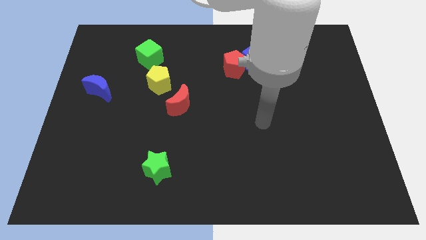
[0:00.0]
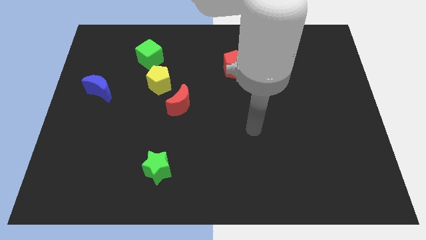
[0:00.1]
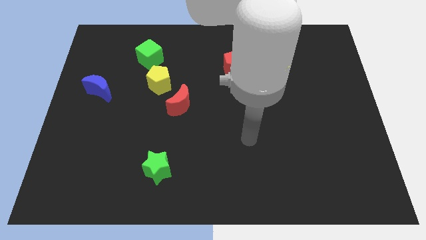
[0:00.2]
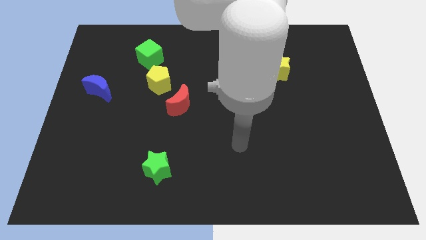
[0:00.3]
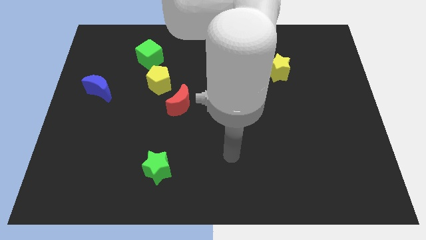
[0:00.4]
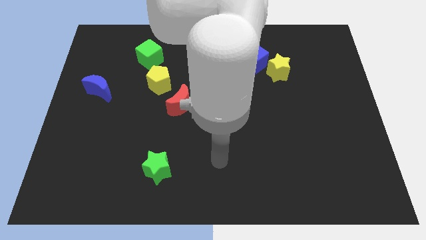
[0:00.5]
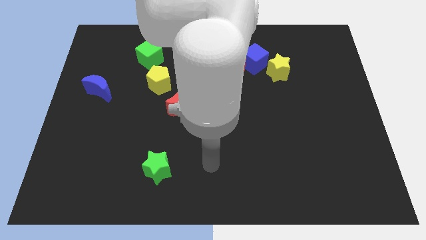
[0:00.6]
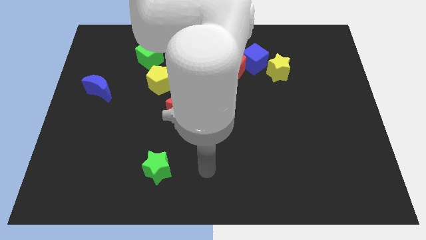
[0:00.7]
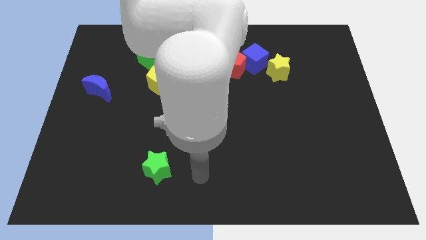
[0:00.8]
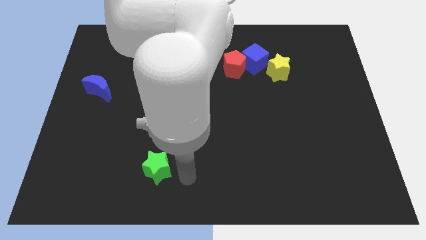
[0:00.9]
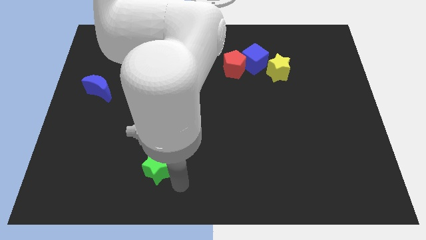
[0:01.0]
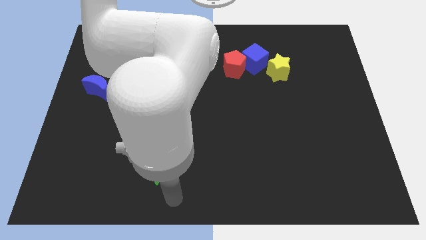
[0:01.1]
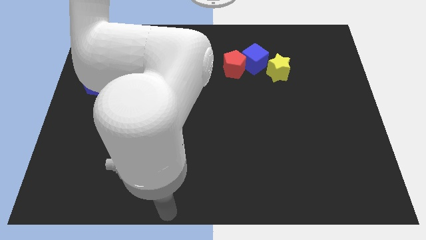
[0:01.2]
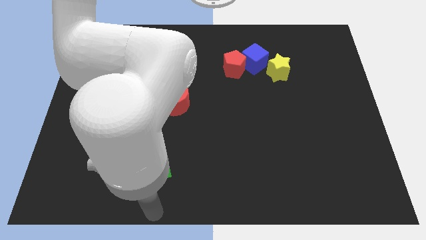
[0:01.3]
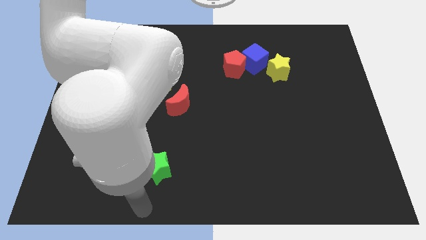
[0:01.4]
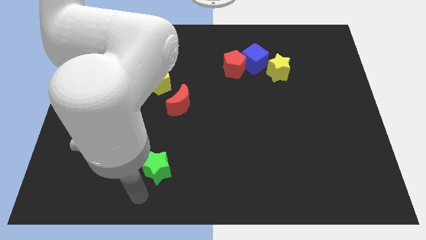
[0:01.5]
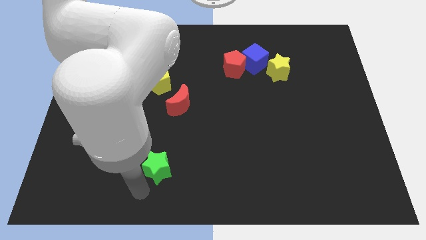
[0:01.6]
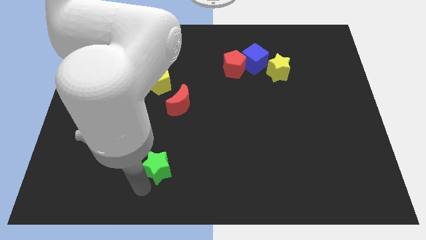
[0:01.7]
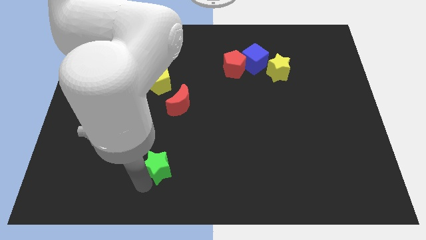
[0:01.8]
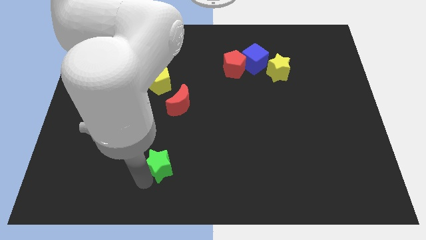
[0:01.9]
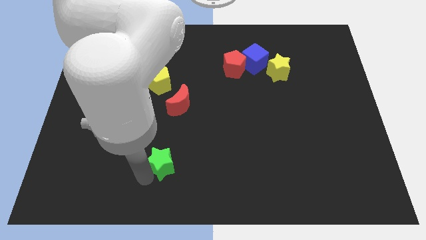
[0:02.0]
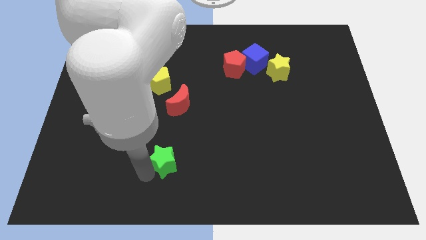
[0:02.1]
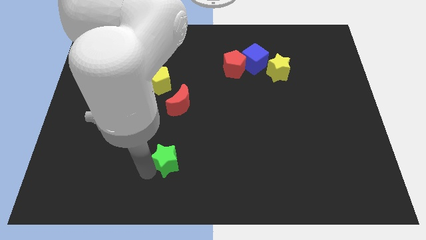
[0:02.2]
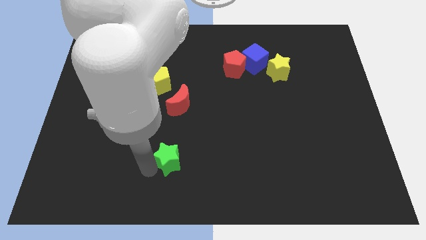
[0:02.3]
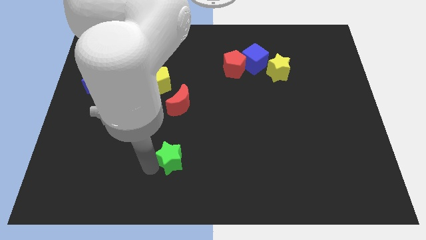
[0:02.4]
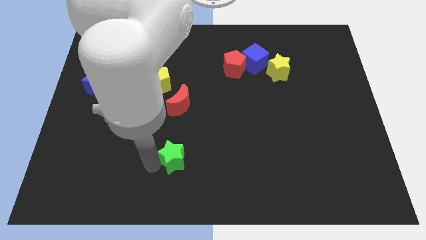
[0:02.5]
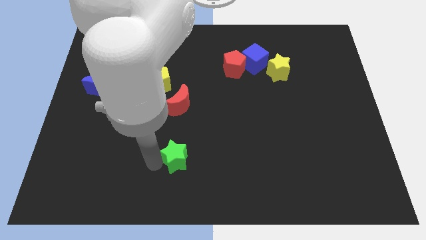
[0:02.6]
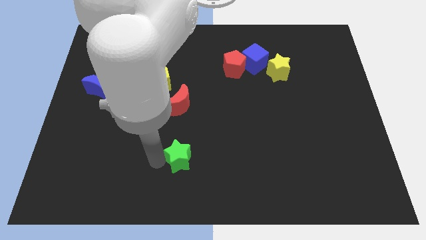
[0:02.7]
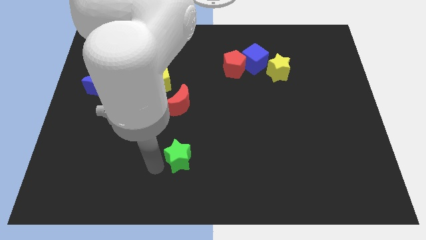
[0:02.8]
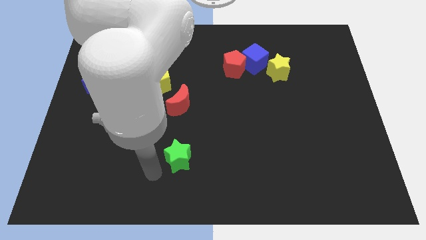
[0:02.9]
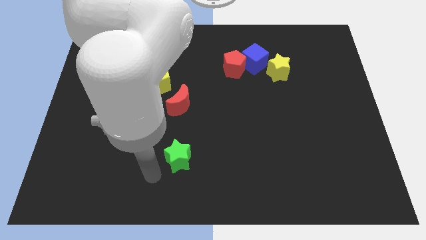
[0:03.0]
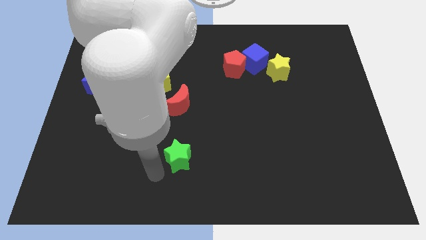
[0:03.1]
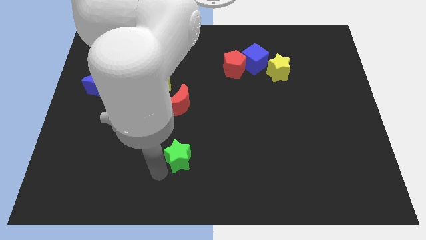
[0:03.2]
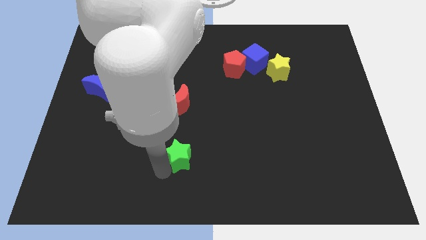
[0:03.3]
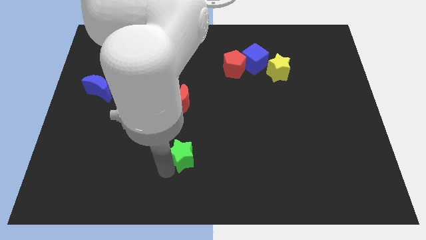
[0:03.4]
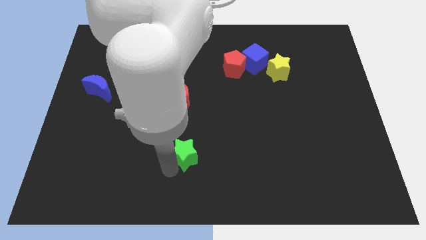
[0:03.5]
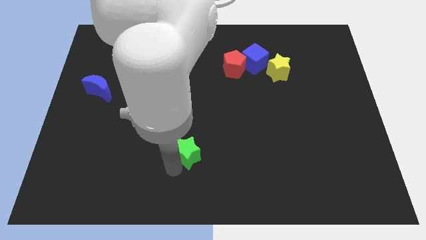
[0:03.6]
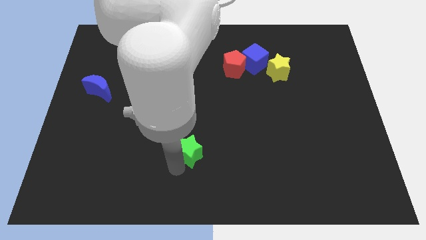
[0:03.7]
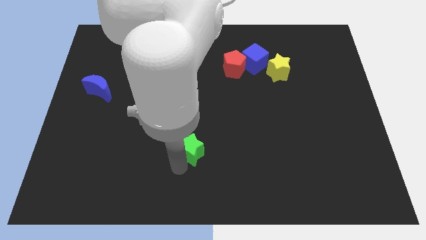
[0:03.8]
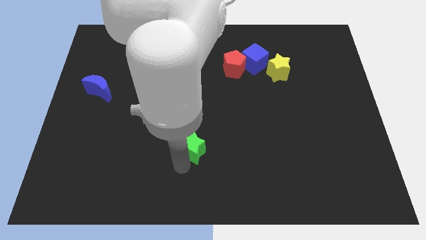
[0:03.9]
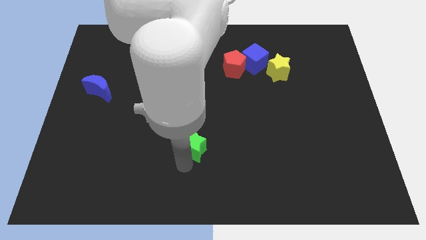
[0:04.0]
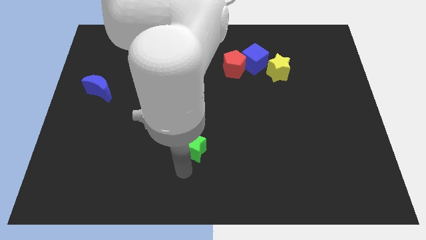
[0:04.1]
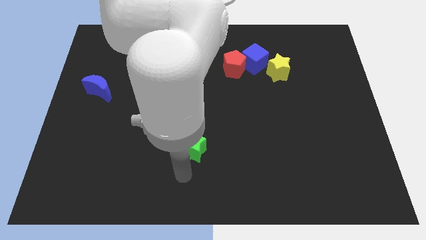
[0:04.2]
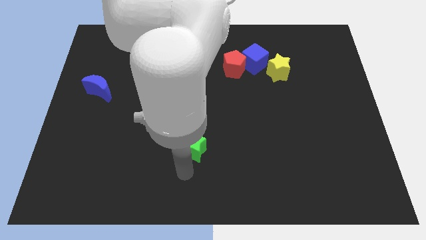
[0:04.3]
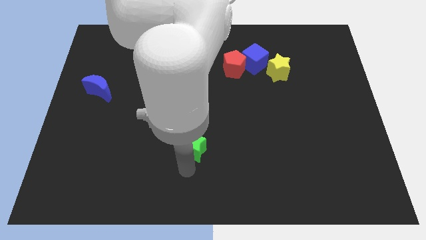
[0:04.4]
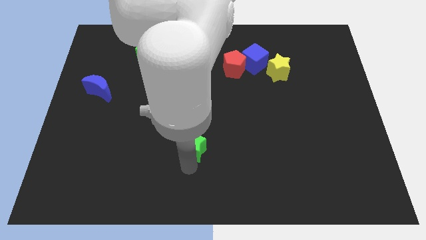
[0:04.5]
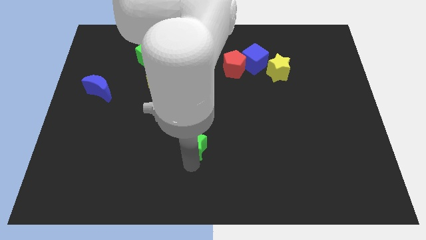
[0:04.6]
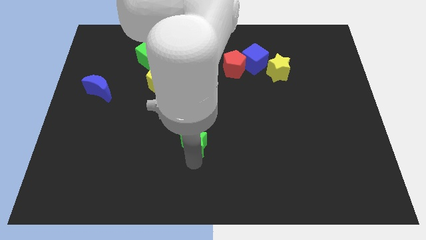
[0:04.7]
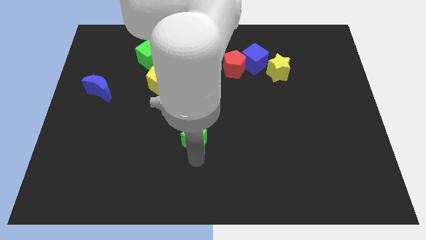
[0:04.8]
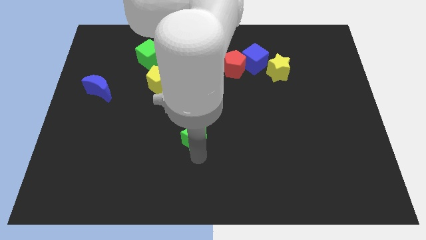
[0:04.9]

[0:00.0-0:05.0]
move the green star to the bottom right of the red moon

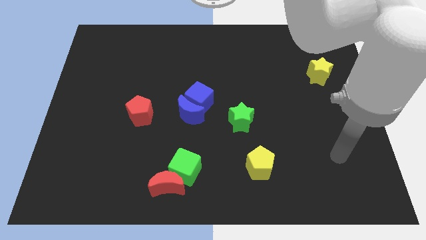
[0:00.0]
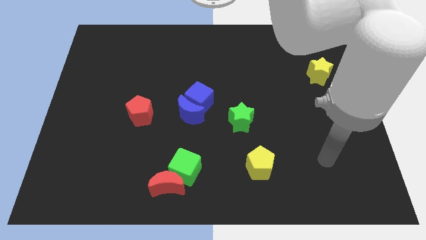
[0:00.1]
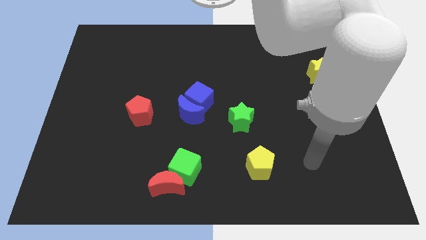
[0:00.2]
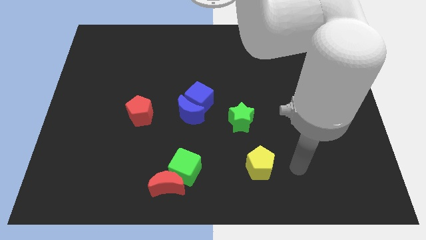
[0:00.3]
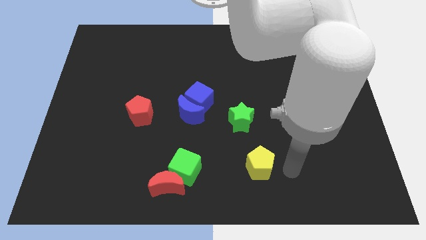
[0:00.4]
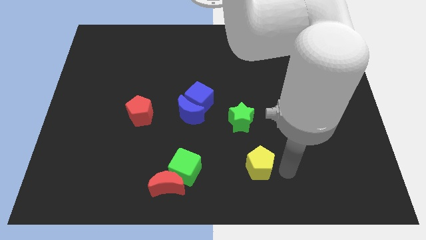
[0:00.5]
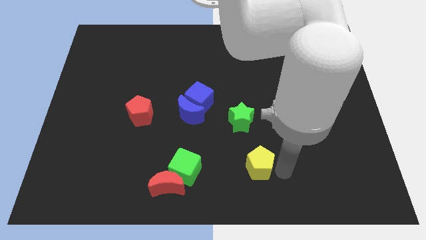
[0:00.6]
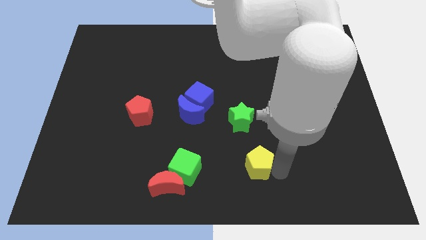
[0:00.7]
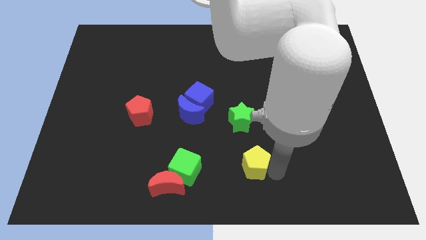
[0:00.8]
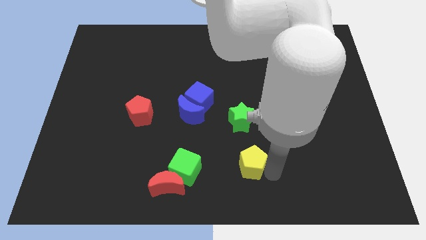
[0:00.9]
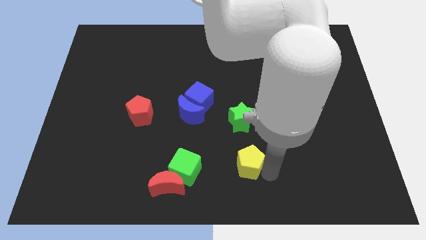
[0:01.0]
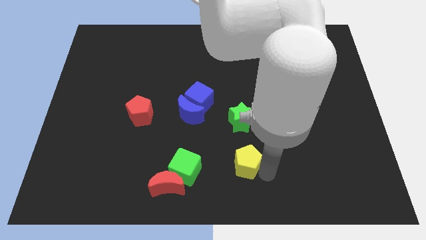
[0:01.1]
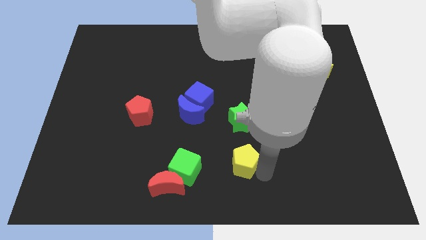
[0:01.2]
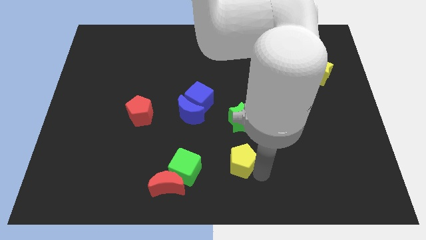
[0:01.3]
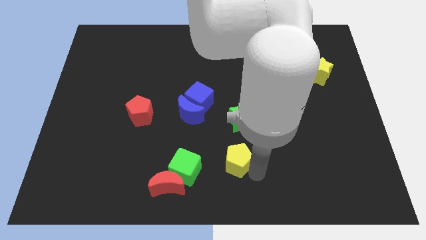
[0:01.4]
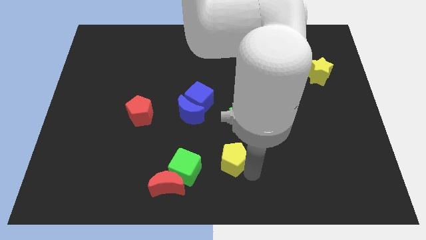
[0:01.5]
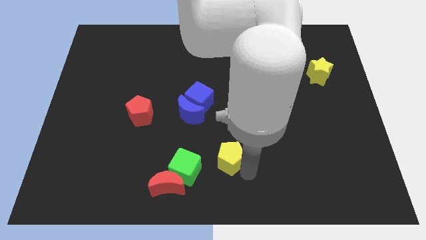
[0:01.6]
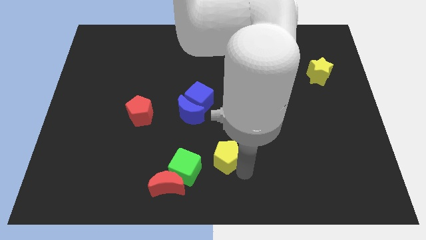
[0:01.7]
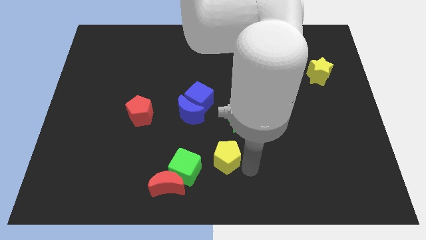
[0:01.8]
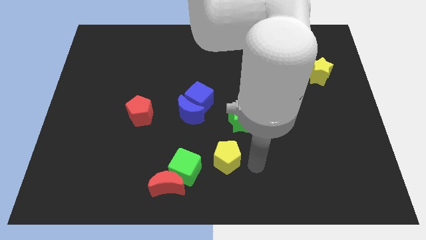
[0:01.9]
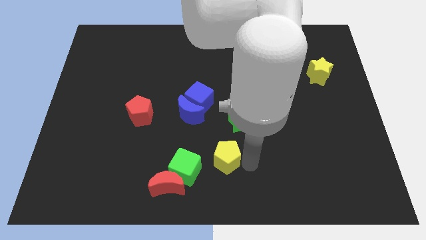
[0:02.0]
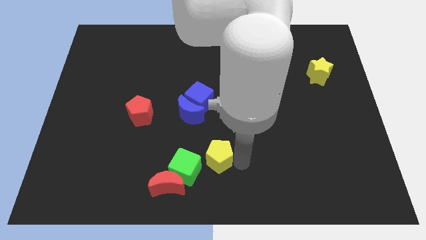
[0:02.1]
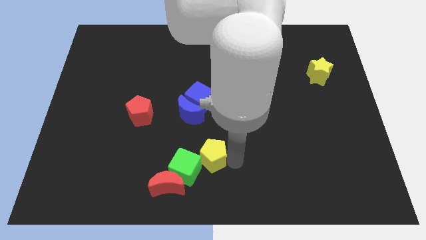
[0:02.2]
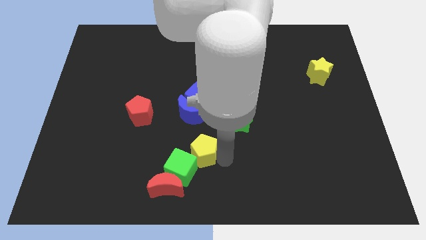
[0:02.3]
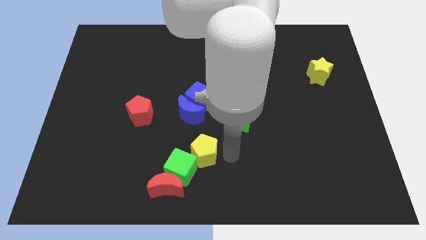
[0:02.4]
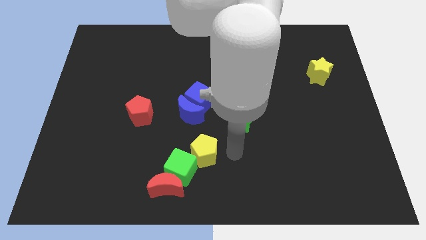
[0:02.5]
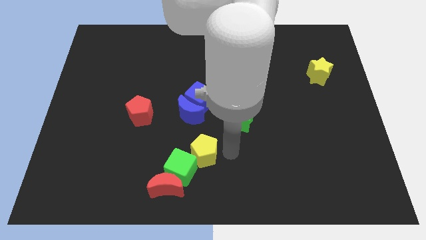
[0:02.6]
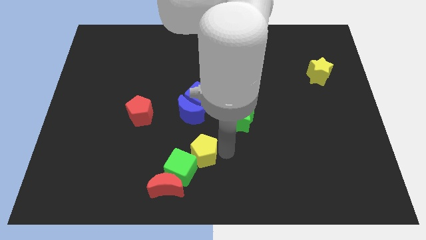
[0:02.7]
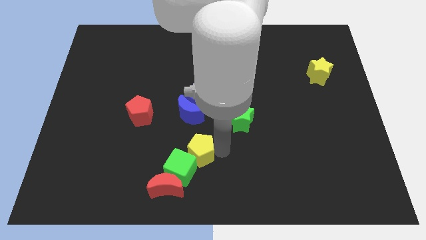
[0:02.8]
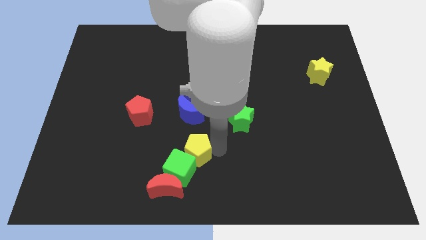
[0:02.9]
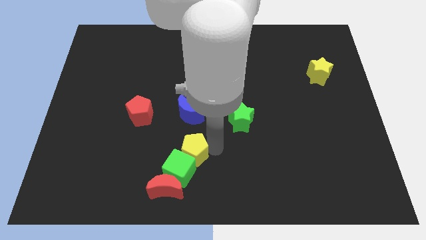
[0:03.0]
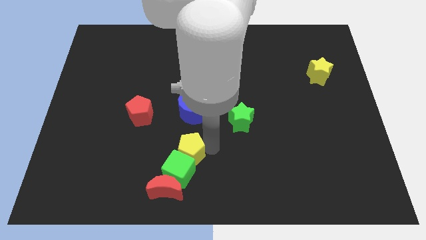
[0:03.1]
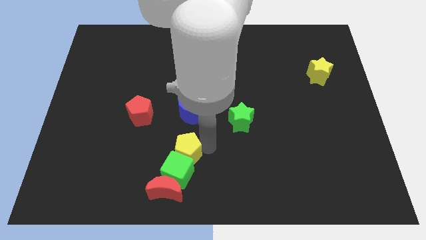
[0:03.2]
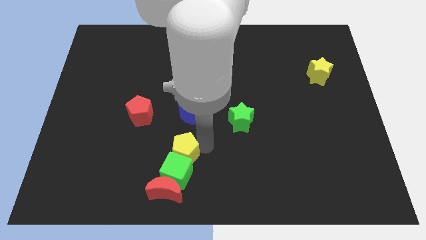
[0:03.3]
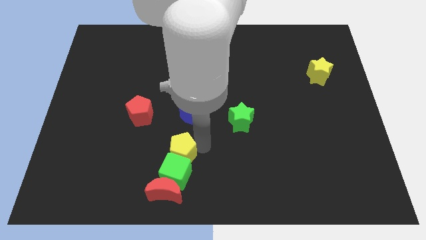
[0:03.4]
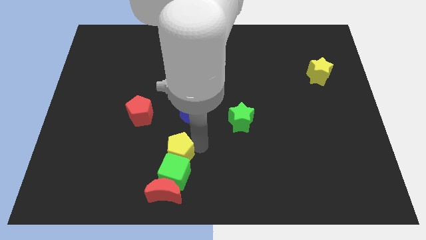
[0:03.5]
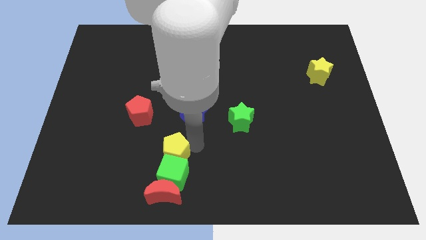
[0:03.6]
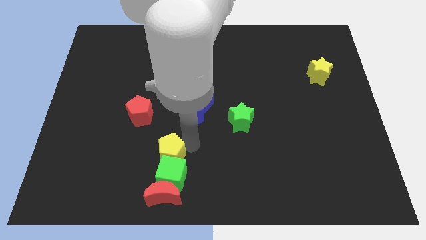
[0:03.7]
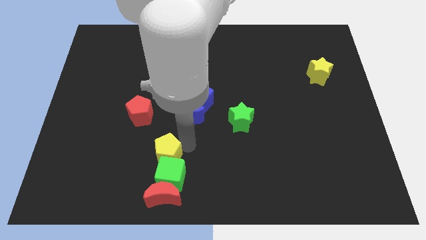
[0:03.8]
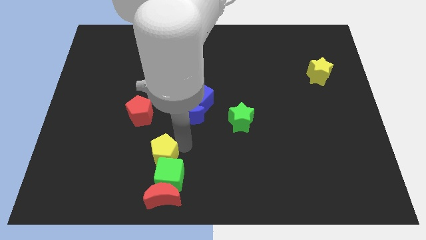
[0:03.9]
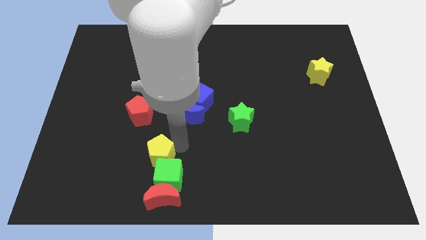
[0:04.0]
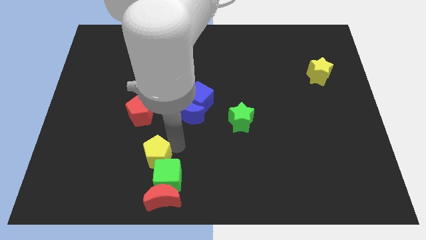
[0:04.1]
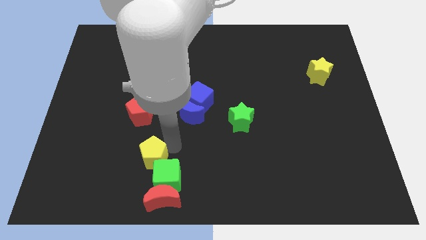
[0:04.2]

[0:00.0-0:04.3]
put the yellow pentagon to the top left side of the red moon
